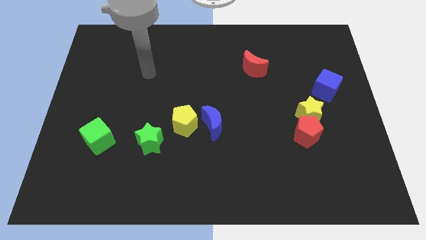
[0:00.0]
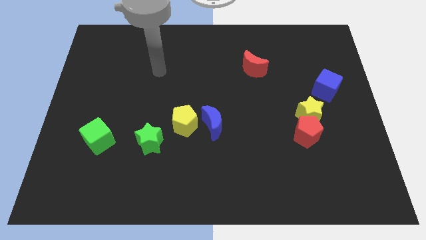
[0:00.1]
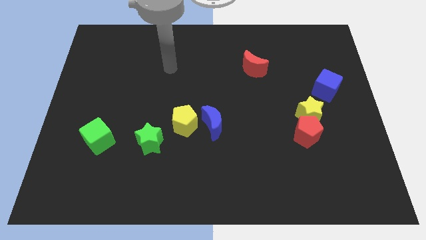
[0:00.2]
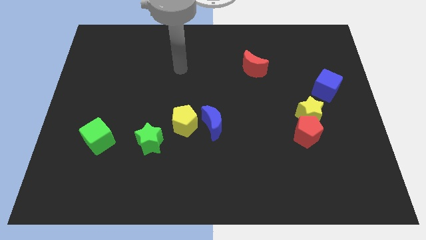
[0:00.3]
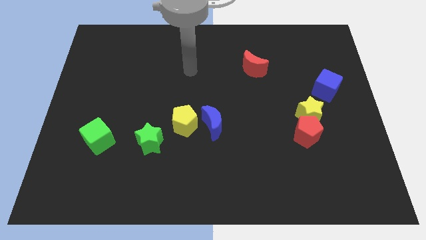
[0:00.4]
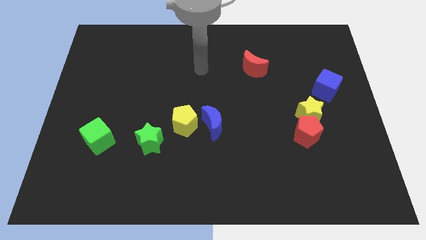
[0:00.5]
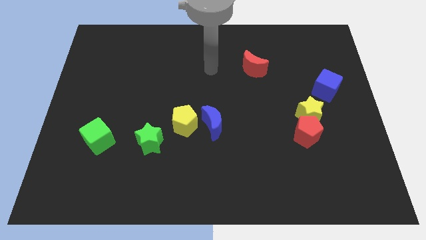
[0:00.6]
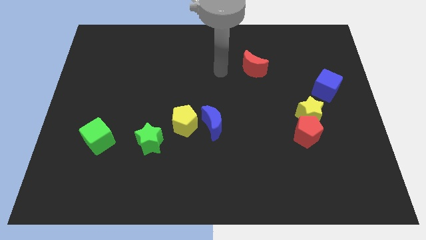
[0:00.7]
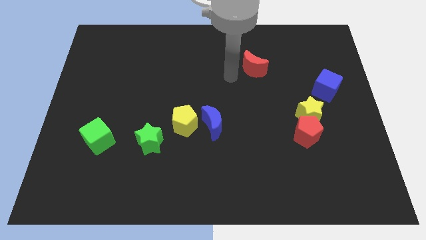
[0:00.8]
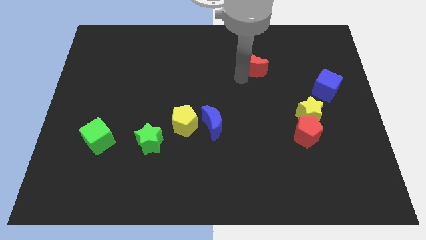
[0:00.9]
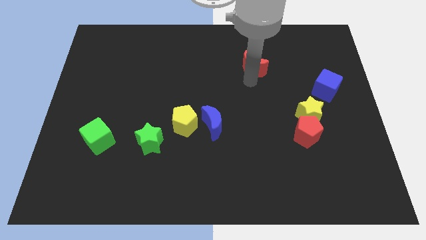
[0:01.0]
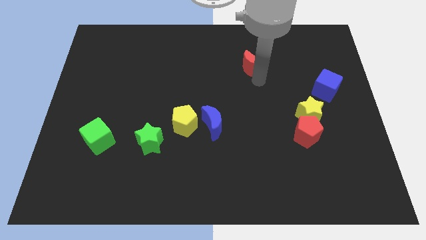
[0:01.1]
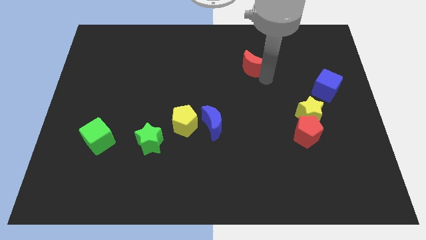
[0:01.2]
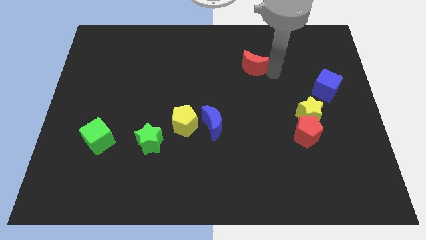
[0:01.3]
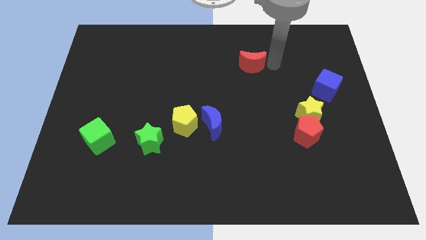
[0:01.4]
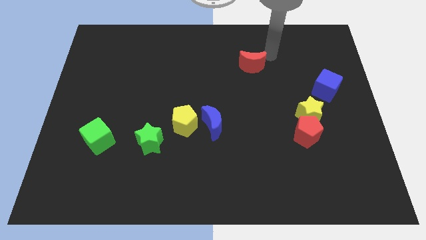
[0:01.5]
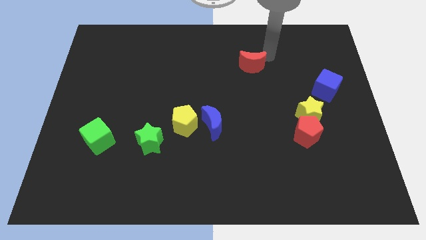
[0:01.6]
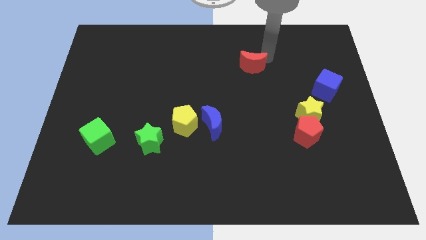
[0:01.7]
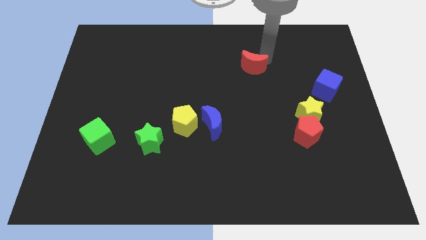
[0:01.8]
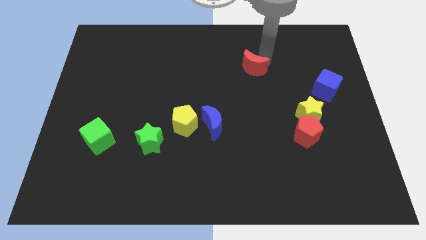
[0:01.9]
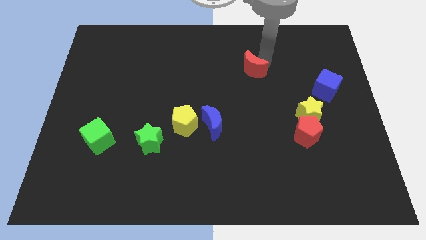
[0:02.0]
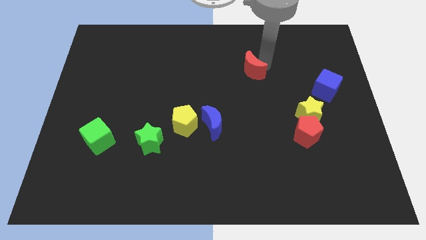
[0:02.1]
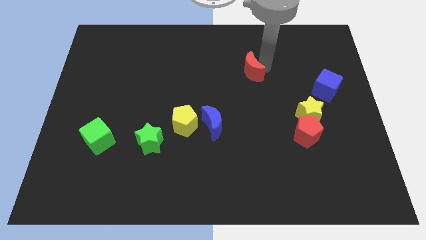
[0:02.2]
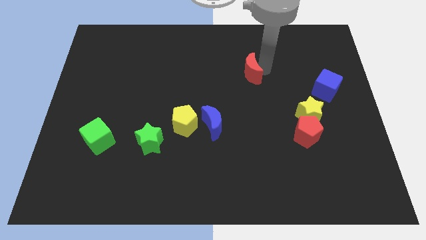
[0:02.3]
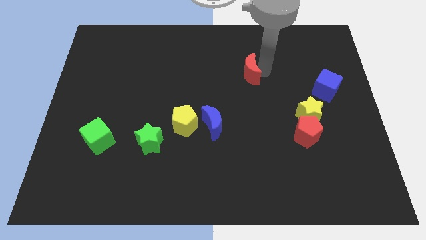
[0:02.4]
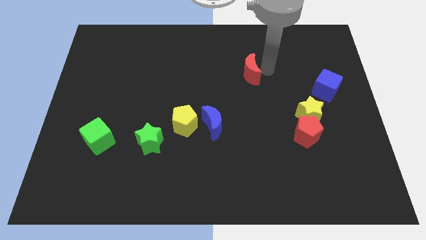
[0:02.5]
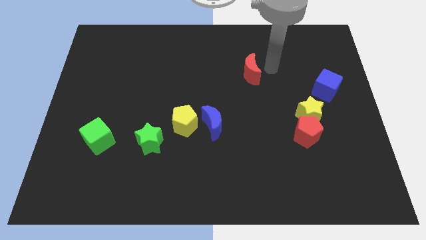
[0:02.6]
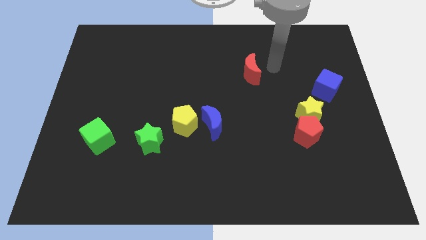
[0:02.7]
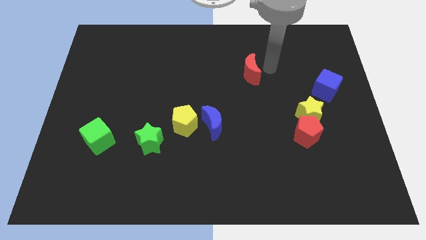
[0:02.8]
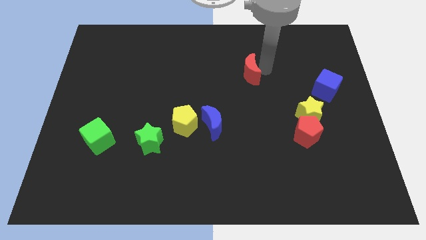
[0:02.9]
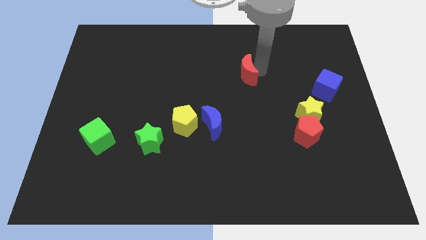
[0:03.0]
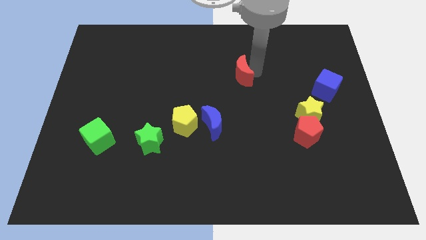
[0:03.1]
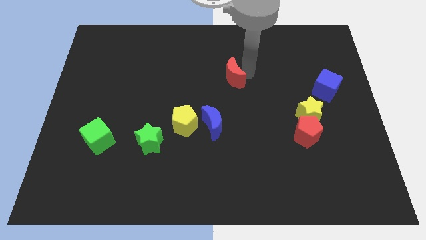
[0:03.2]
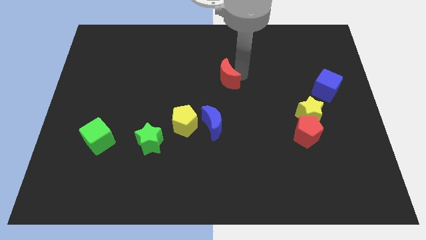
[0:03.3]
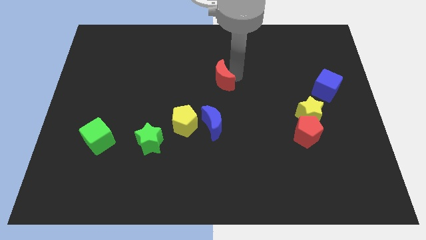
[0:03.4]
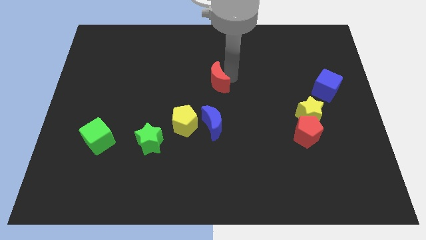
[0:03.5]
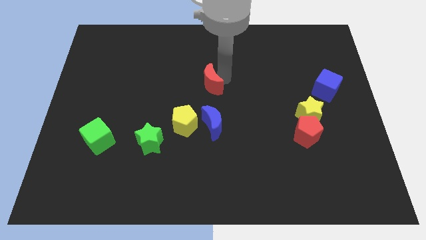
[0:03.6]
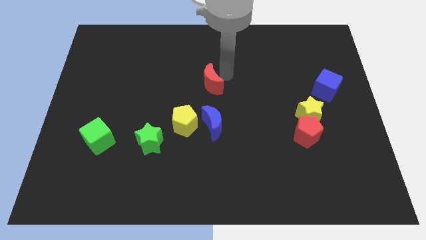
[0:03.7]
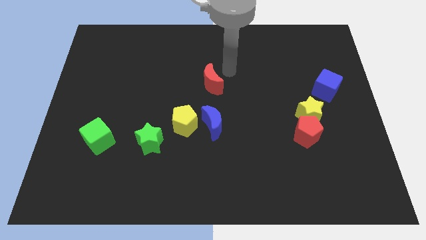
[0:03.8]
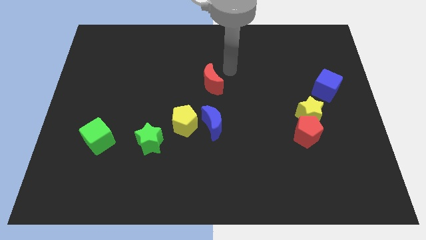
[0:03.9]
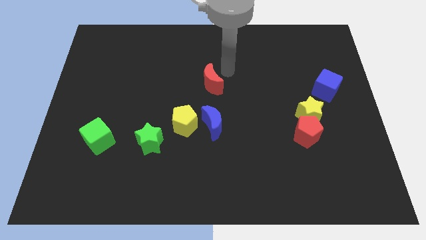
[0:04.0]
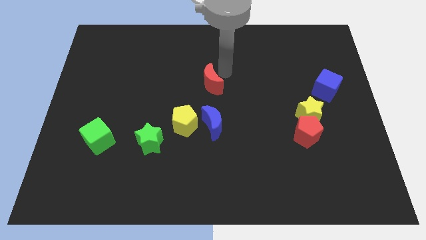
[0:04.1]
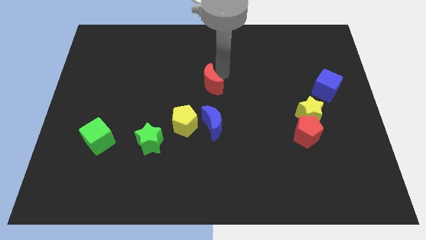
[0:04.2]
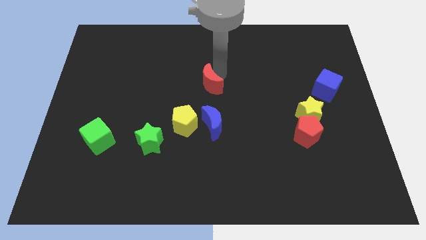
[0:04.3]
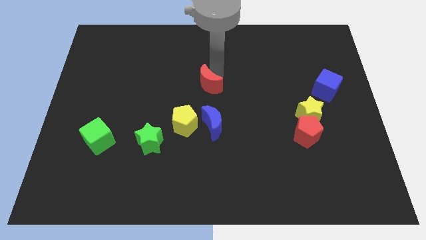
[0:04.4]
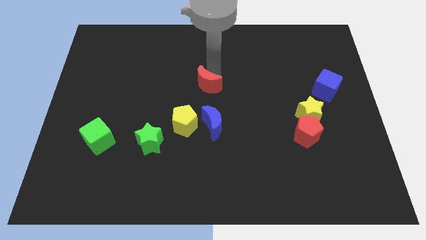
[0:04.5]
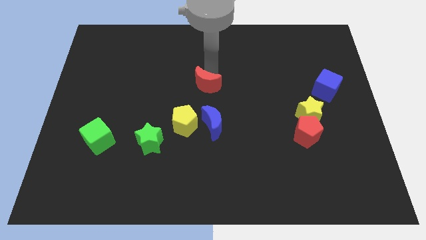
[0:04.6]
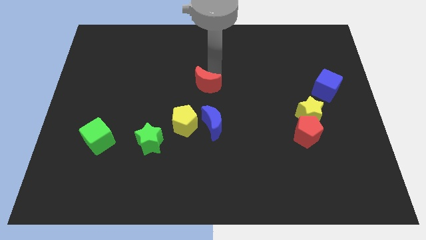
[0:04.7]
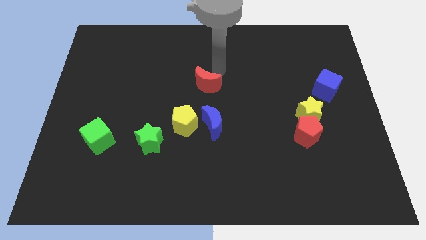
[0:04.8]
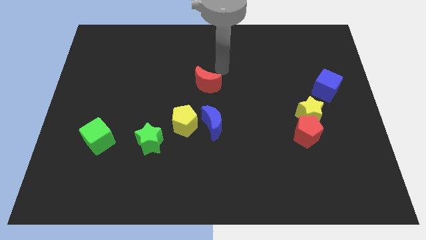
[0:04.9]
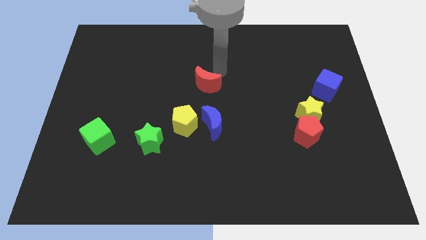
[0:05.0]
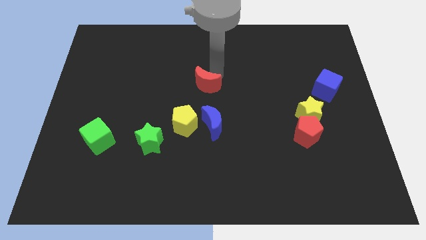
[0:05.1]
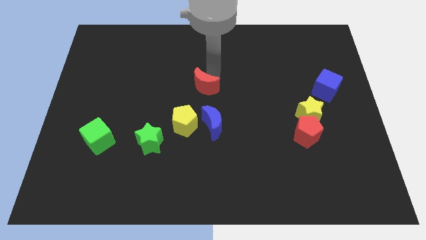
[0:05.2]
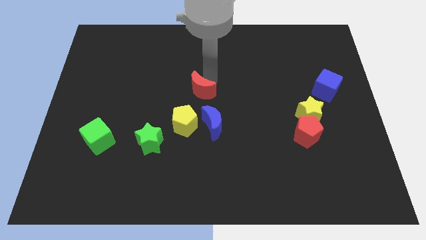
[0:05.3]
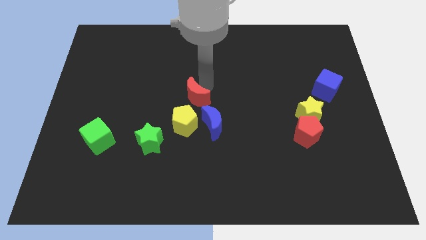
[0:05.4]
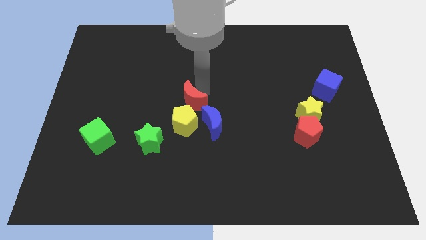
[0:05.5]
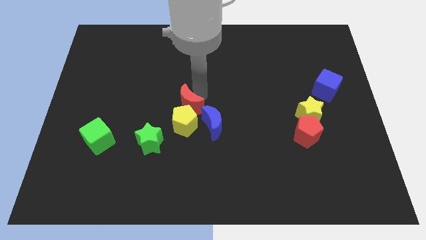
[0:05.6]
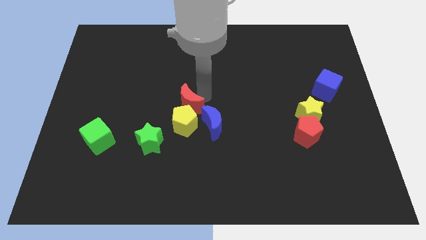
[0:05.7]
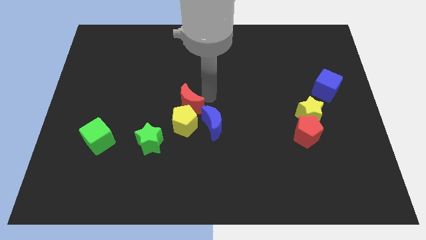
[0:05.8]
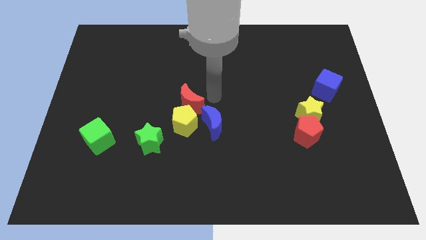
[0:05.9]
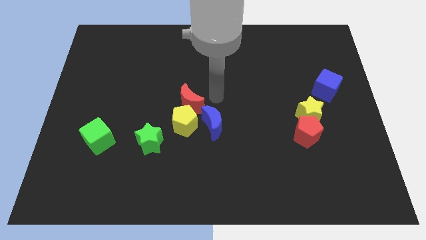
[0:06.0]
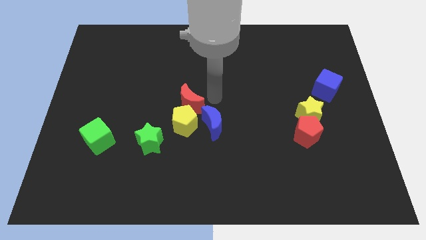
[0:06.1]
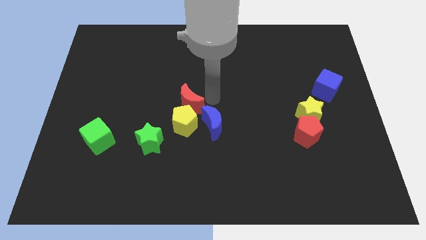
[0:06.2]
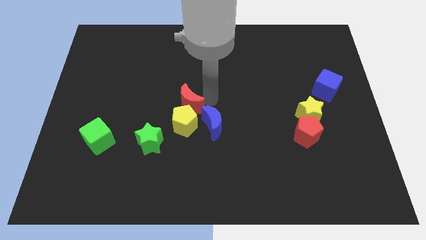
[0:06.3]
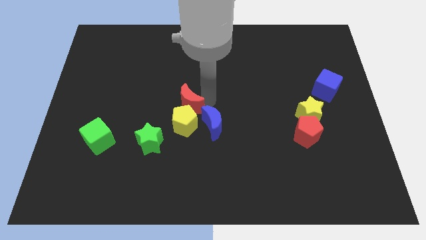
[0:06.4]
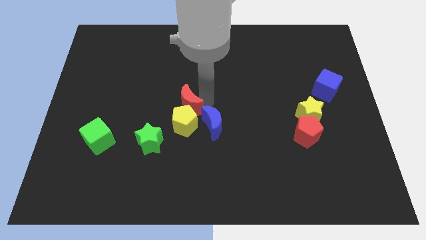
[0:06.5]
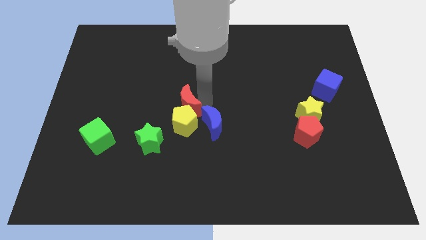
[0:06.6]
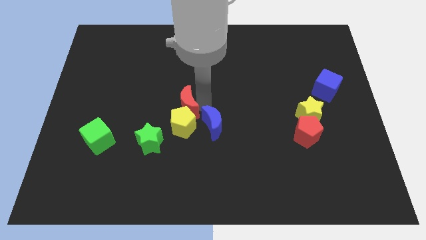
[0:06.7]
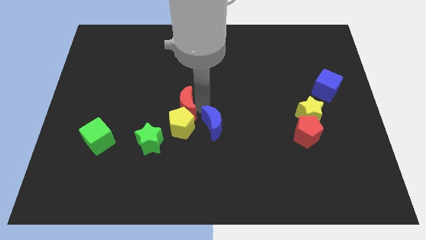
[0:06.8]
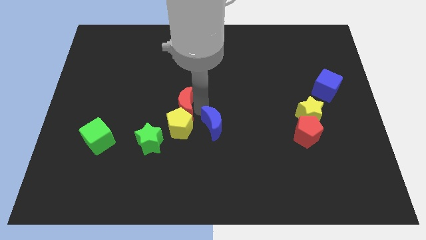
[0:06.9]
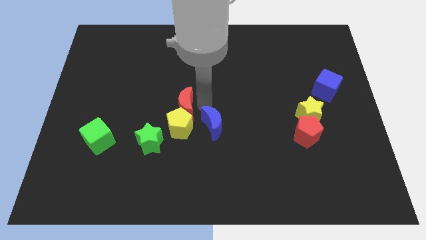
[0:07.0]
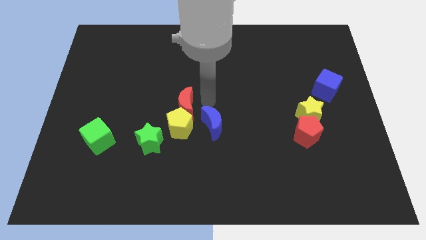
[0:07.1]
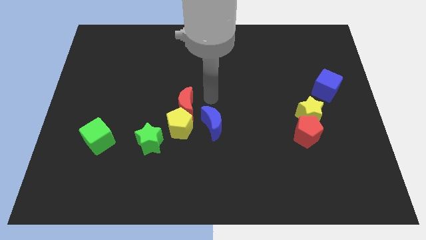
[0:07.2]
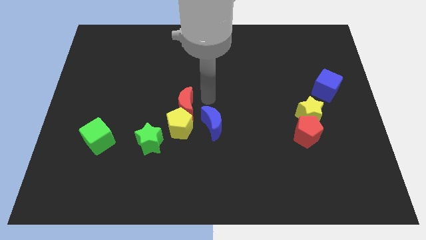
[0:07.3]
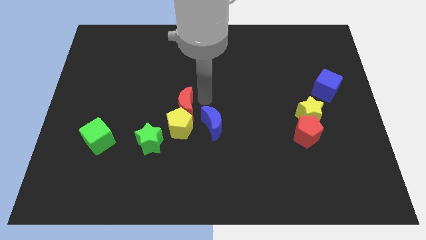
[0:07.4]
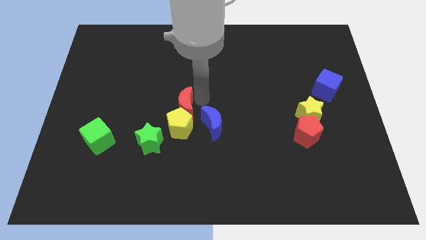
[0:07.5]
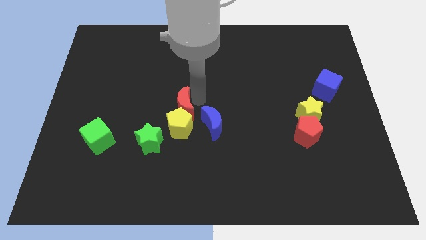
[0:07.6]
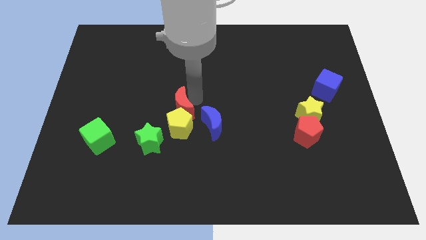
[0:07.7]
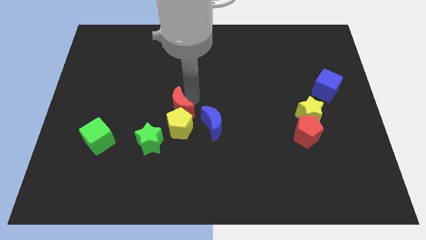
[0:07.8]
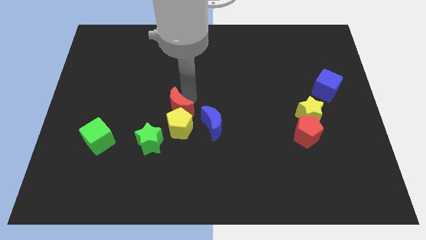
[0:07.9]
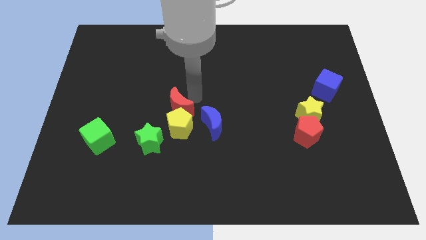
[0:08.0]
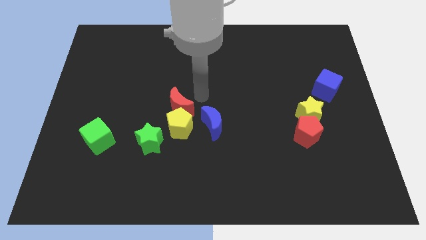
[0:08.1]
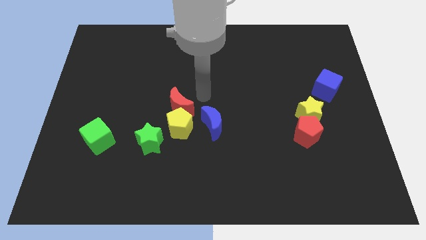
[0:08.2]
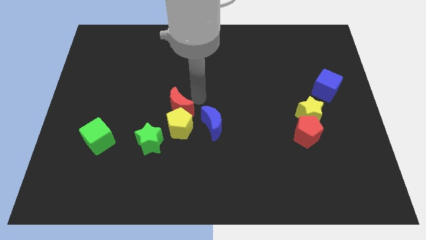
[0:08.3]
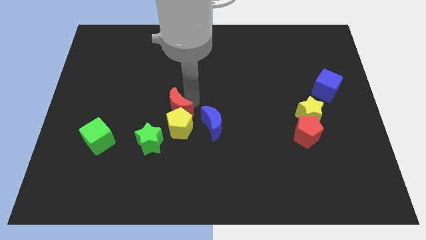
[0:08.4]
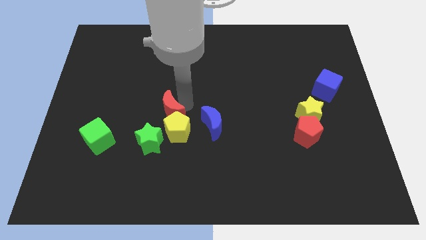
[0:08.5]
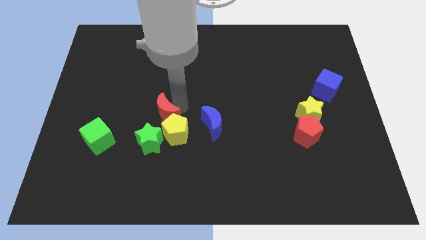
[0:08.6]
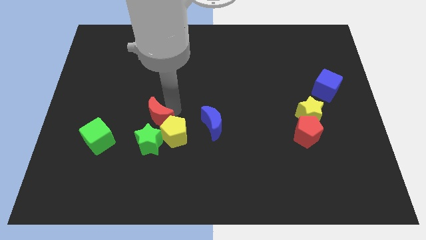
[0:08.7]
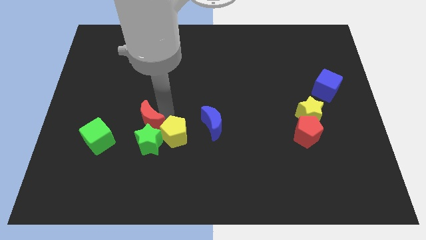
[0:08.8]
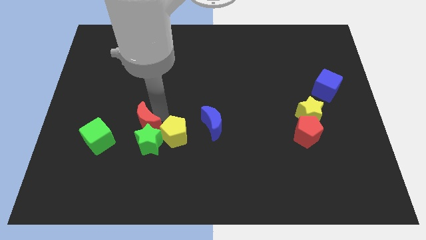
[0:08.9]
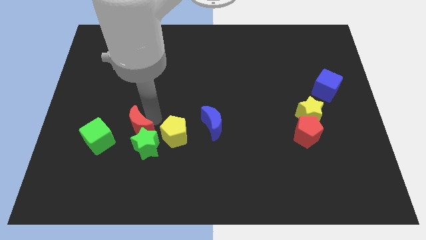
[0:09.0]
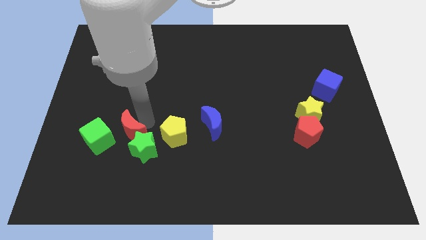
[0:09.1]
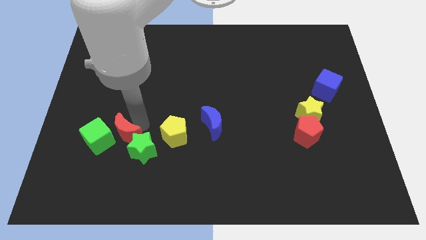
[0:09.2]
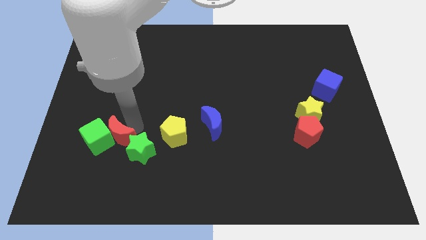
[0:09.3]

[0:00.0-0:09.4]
put the red moon to the bottom right of the green cube
